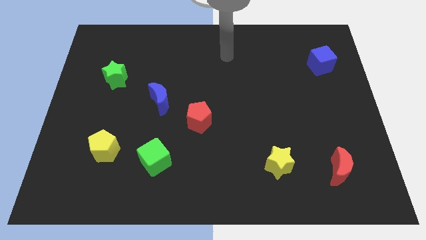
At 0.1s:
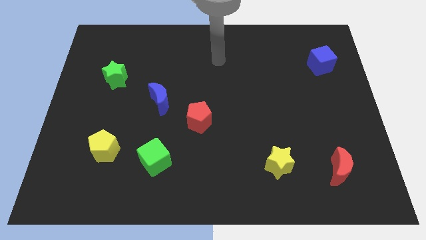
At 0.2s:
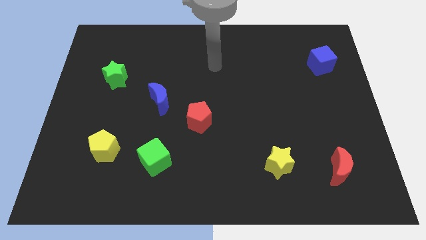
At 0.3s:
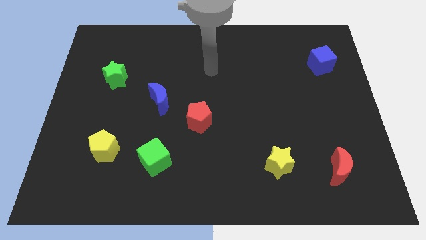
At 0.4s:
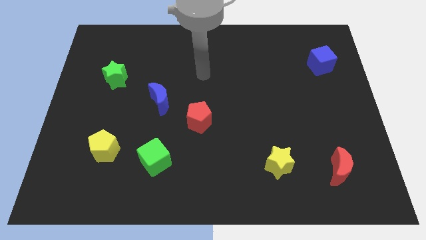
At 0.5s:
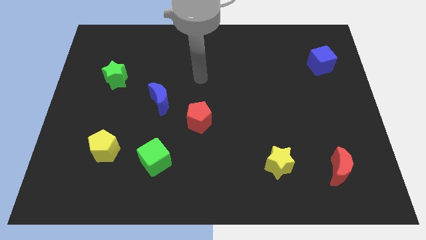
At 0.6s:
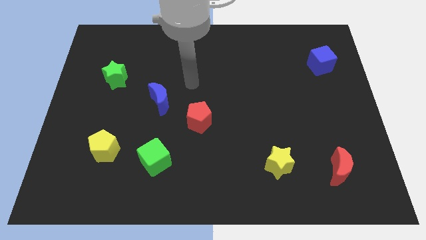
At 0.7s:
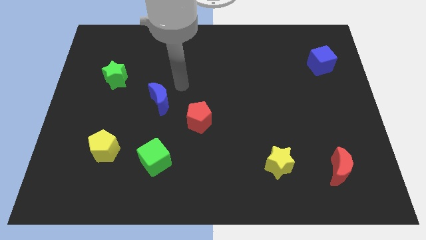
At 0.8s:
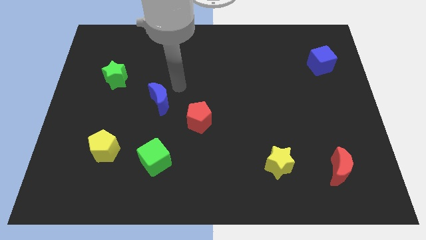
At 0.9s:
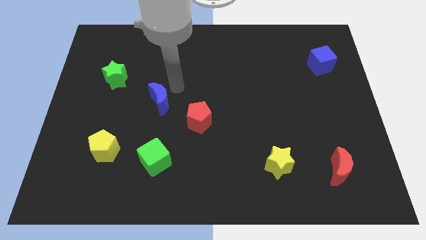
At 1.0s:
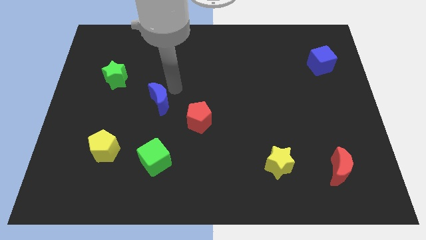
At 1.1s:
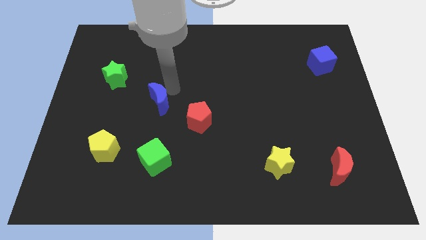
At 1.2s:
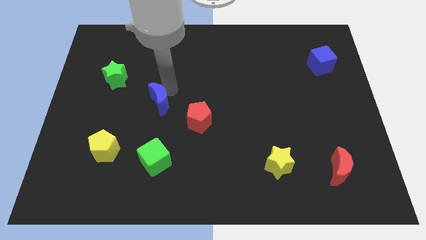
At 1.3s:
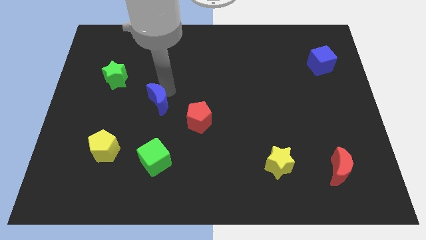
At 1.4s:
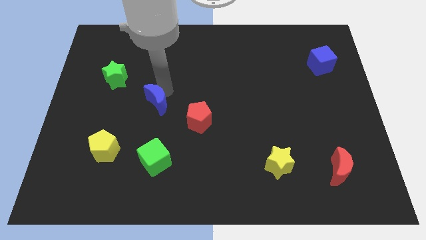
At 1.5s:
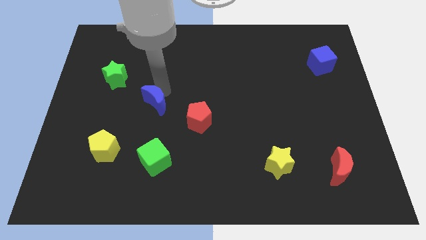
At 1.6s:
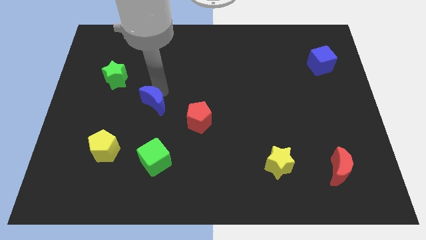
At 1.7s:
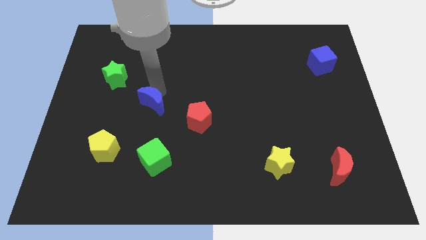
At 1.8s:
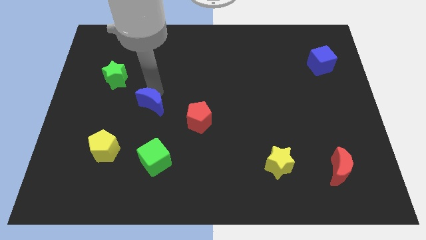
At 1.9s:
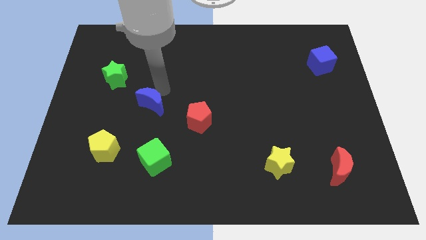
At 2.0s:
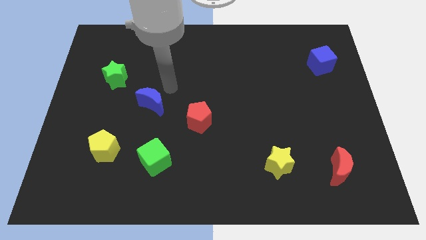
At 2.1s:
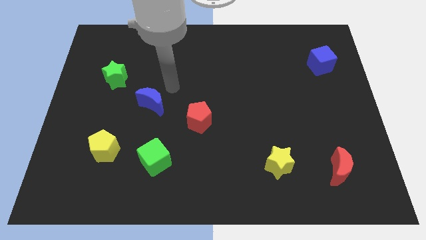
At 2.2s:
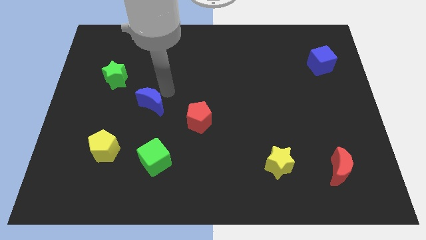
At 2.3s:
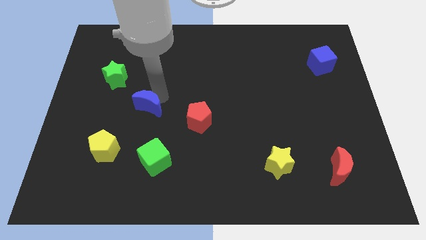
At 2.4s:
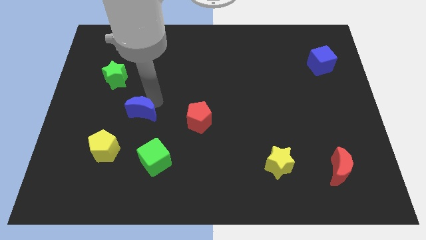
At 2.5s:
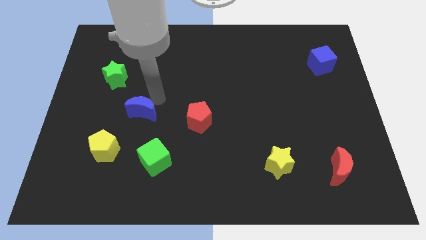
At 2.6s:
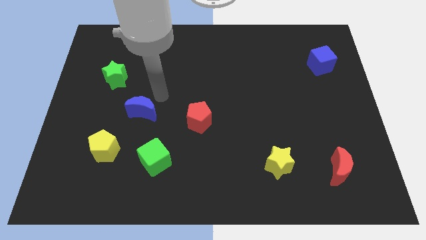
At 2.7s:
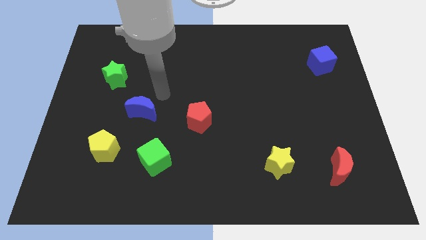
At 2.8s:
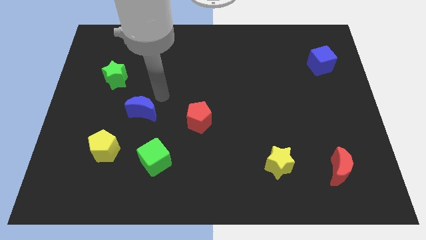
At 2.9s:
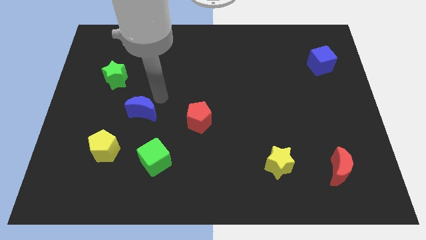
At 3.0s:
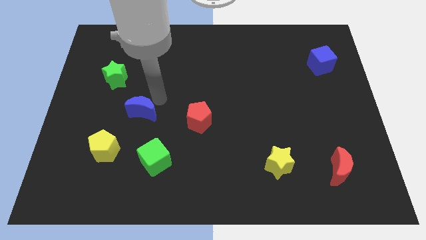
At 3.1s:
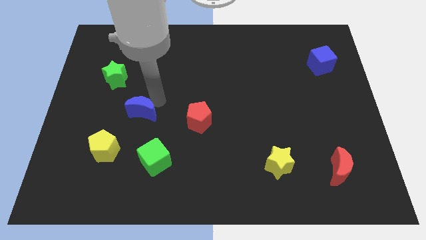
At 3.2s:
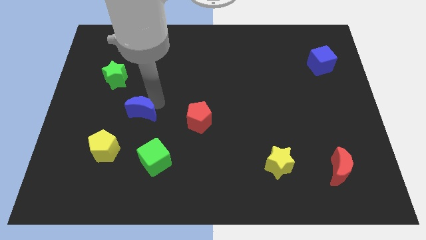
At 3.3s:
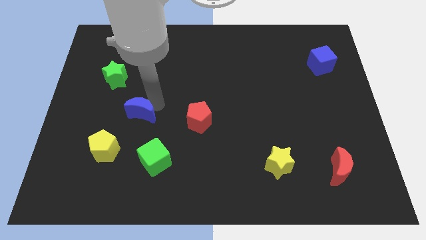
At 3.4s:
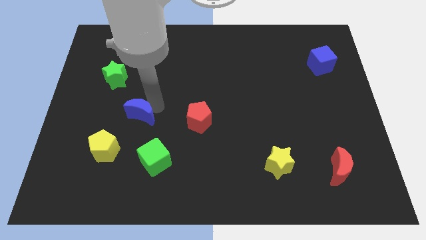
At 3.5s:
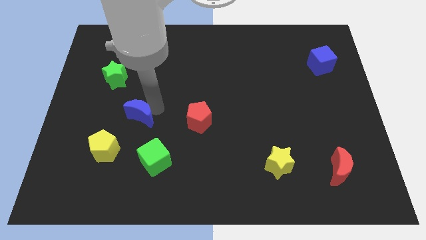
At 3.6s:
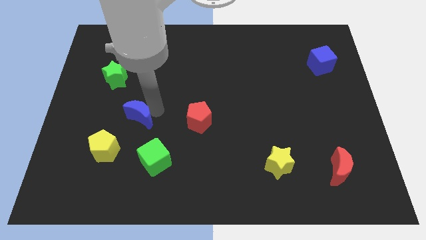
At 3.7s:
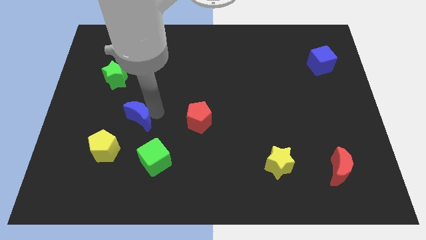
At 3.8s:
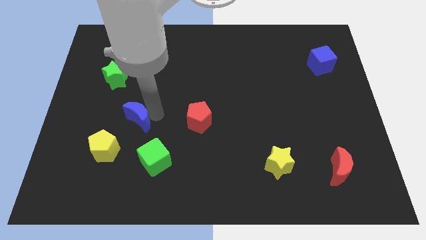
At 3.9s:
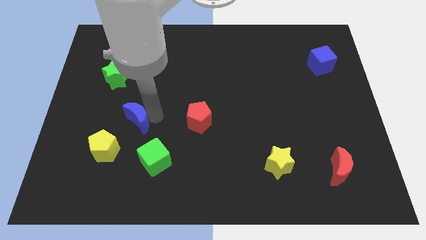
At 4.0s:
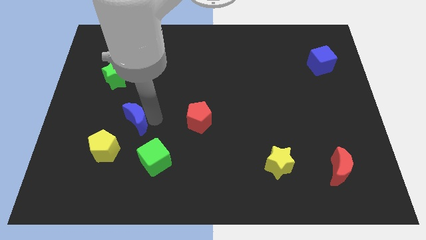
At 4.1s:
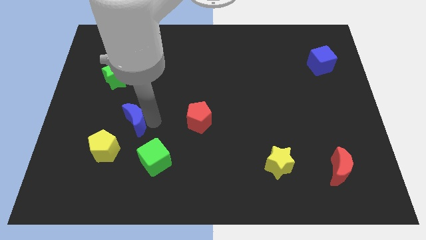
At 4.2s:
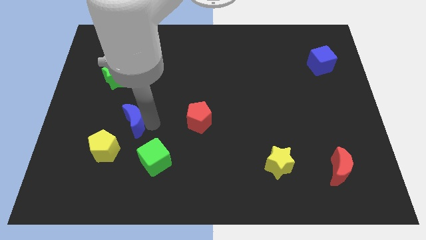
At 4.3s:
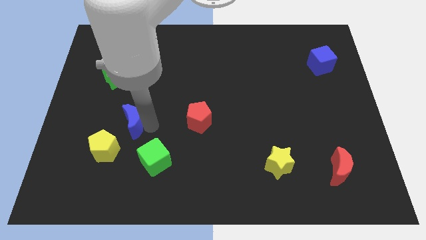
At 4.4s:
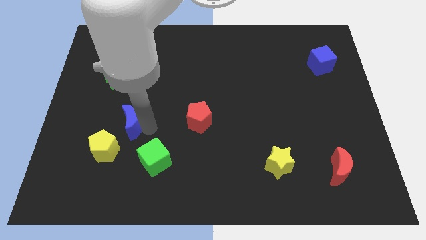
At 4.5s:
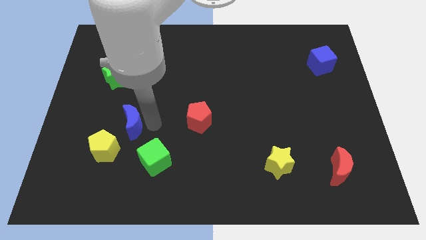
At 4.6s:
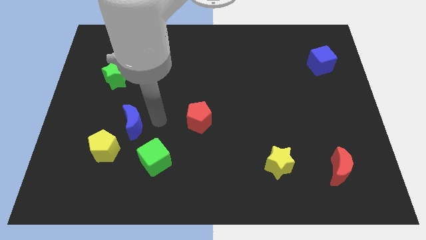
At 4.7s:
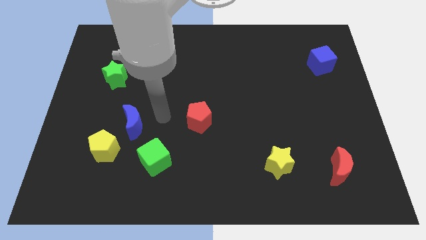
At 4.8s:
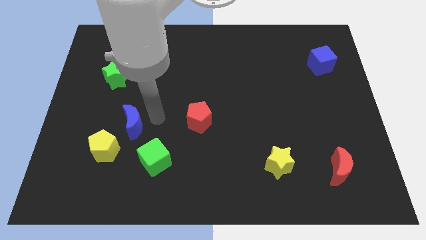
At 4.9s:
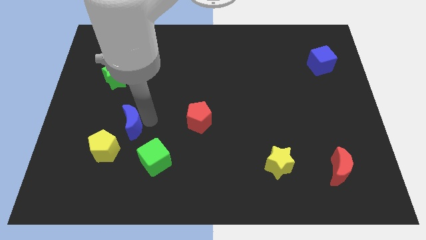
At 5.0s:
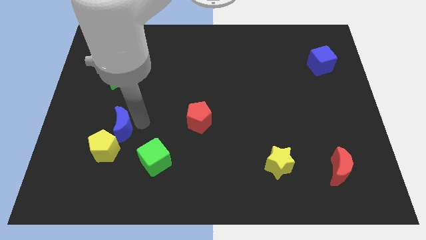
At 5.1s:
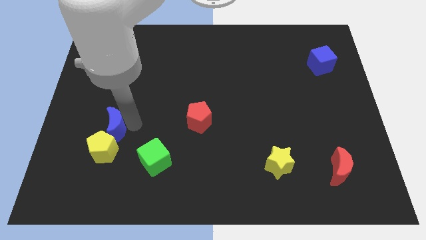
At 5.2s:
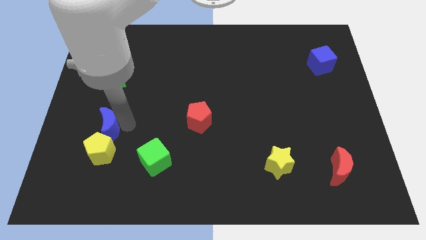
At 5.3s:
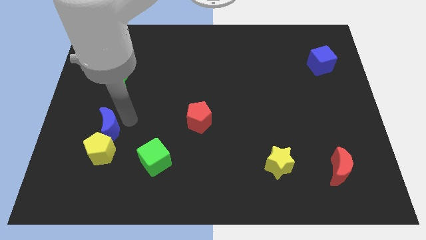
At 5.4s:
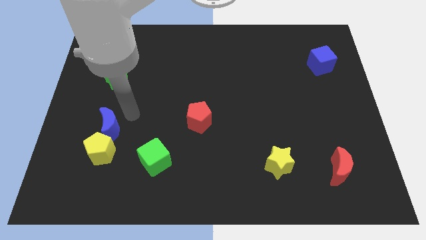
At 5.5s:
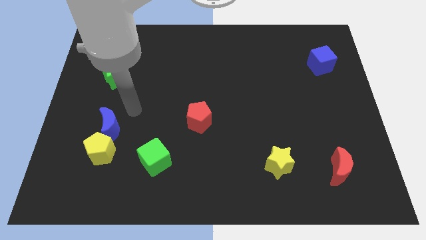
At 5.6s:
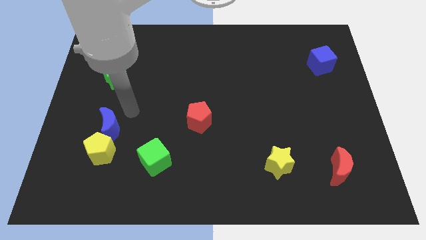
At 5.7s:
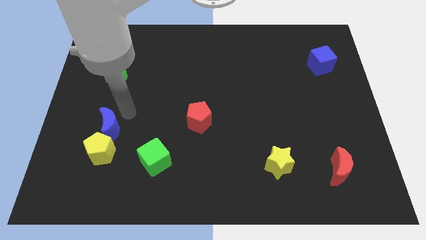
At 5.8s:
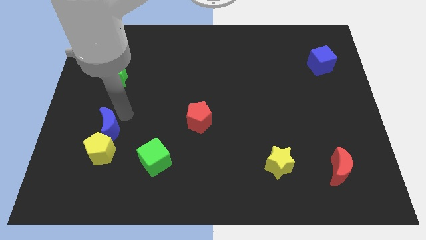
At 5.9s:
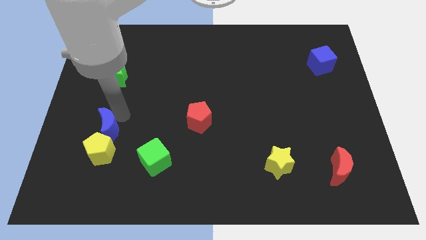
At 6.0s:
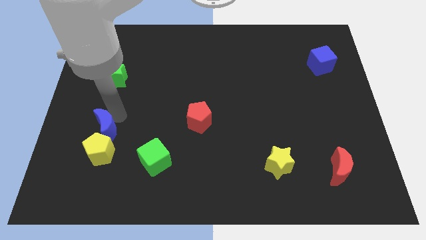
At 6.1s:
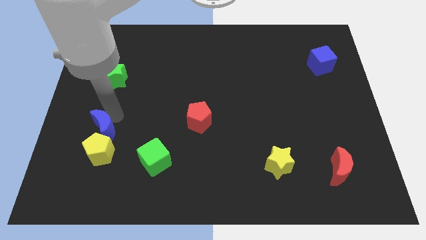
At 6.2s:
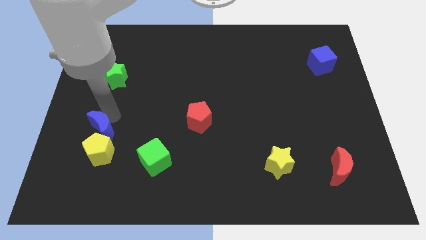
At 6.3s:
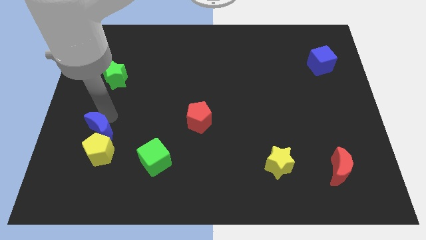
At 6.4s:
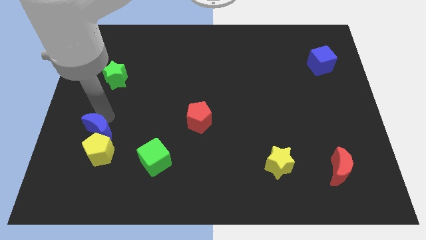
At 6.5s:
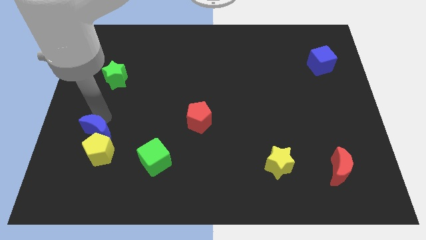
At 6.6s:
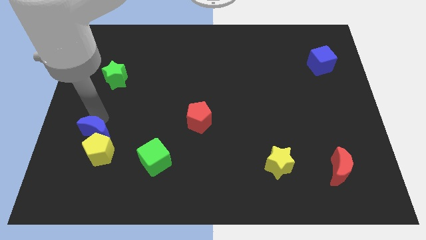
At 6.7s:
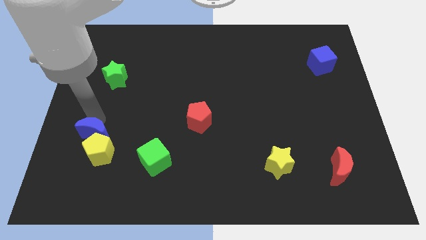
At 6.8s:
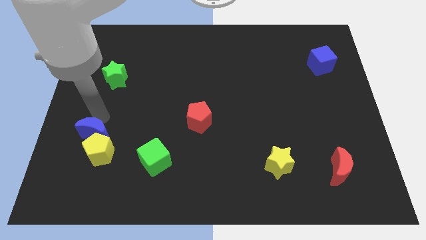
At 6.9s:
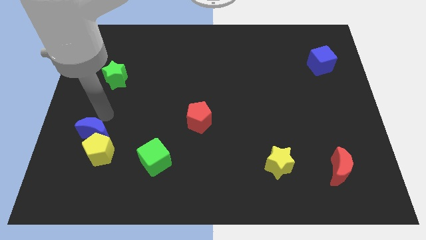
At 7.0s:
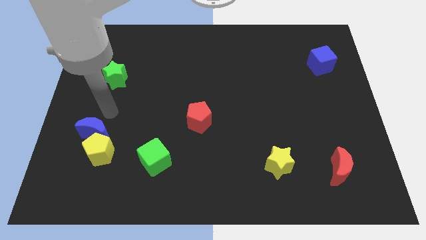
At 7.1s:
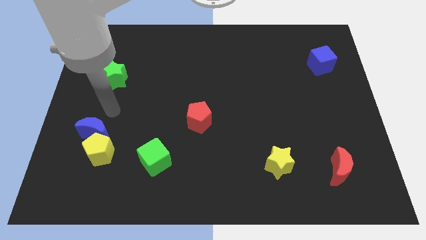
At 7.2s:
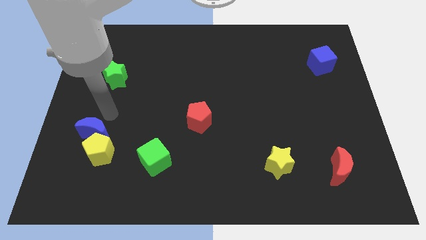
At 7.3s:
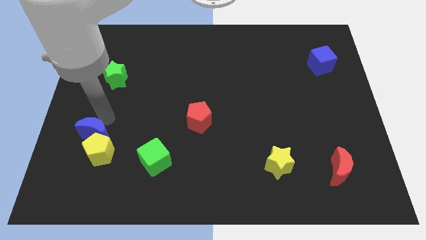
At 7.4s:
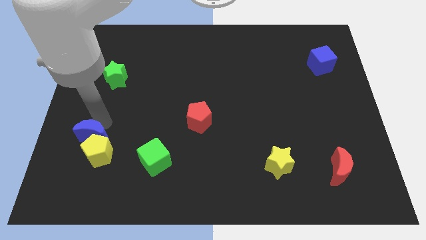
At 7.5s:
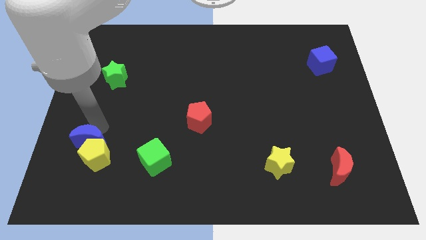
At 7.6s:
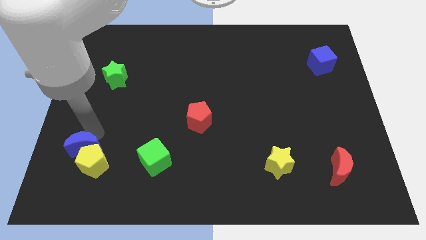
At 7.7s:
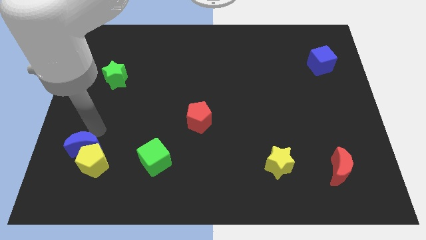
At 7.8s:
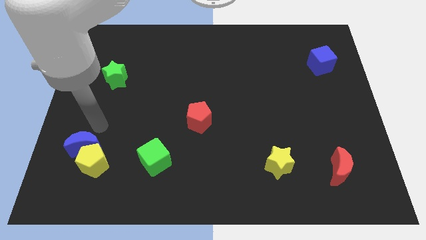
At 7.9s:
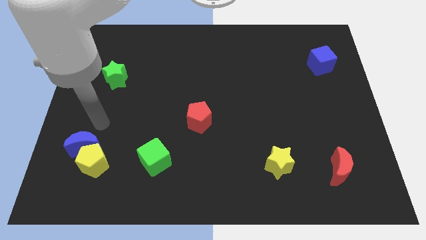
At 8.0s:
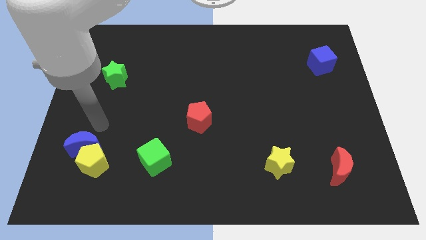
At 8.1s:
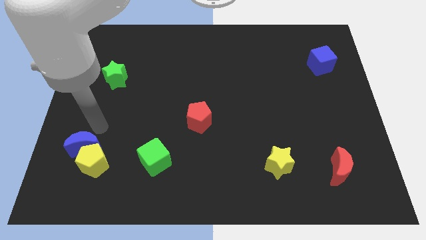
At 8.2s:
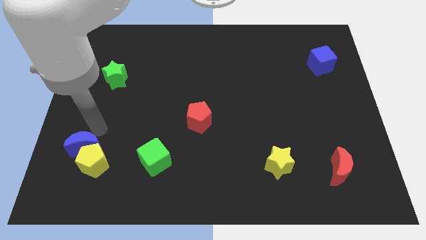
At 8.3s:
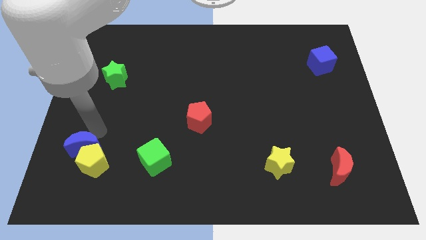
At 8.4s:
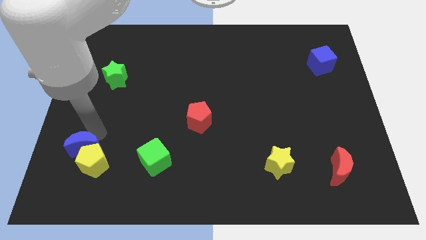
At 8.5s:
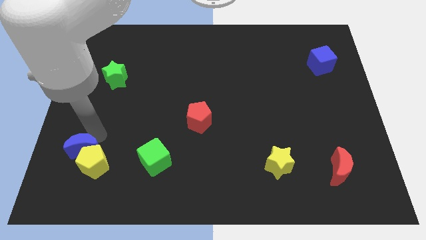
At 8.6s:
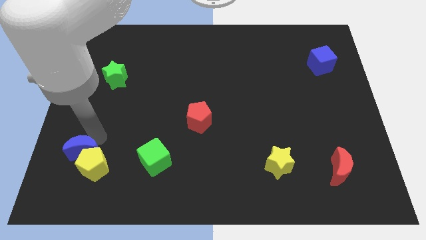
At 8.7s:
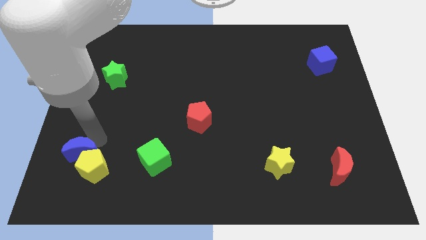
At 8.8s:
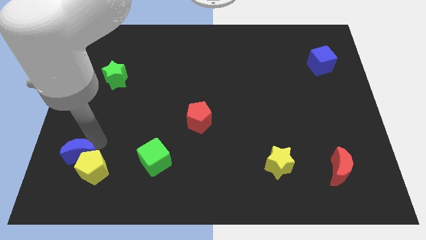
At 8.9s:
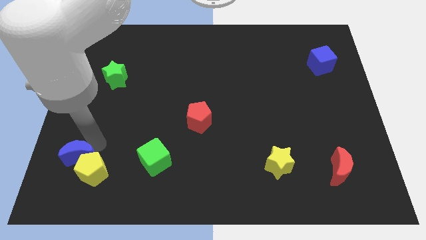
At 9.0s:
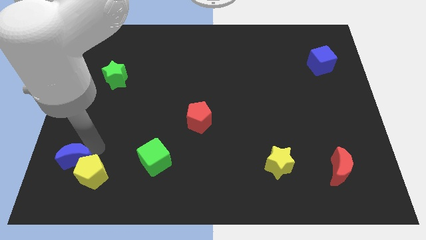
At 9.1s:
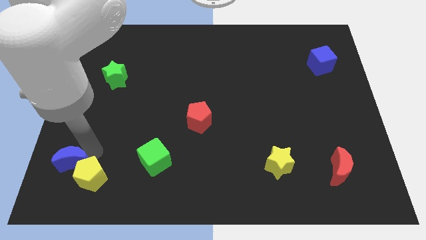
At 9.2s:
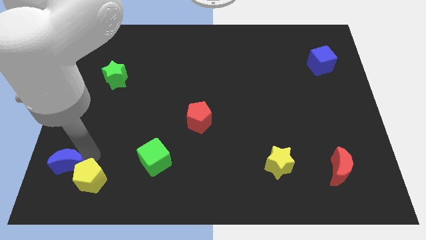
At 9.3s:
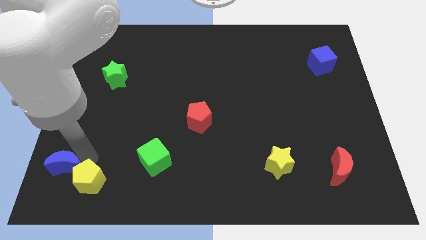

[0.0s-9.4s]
push the blue moon to the bottom left corner
